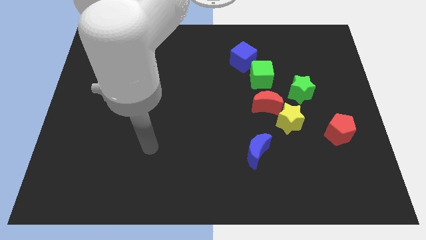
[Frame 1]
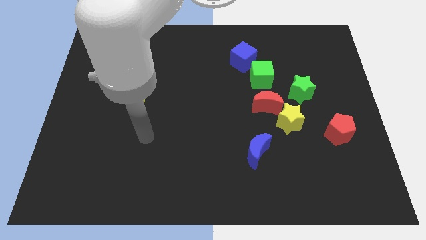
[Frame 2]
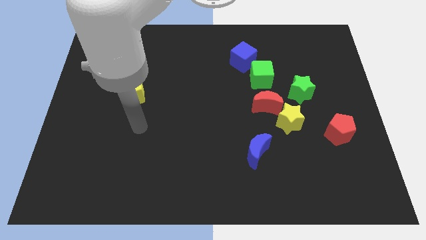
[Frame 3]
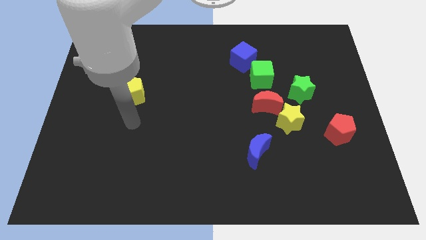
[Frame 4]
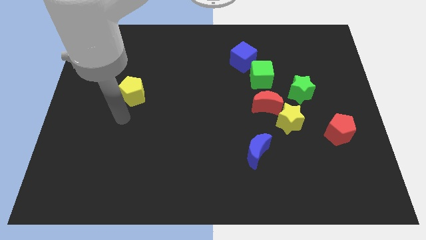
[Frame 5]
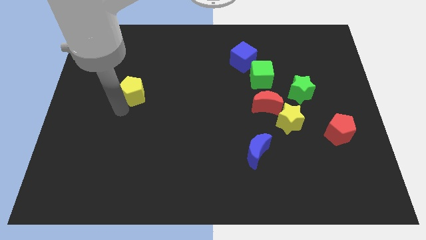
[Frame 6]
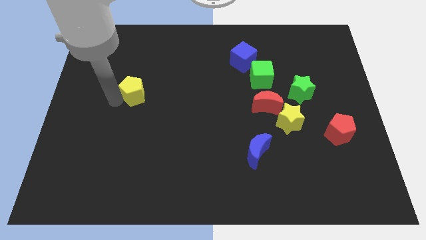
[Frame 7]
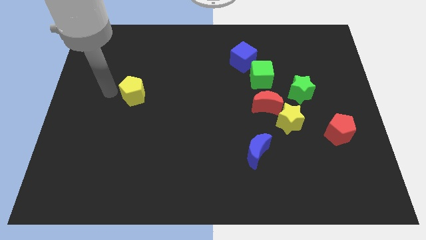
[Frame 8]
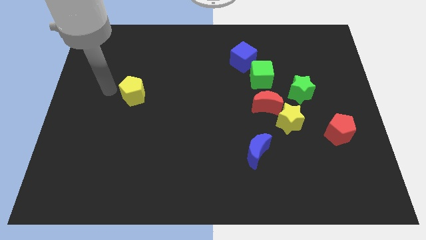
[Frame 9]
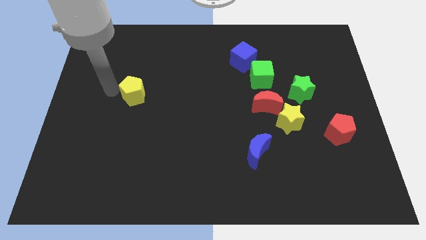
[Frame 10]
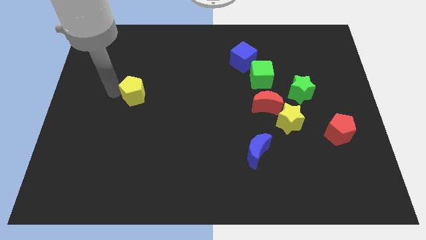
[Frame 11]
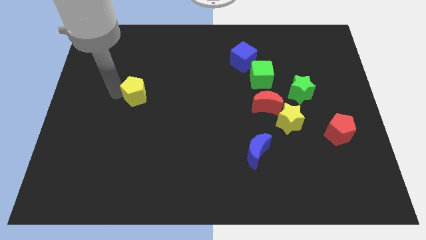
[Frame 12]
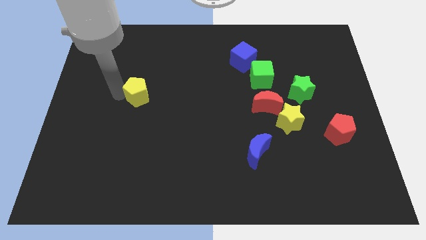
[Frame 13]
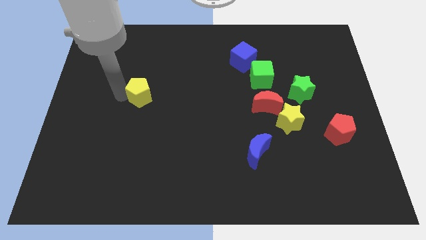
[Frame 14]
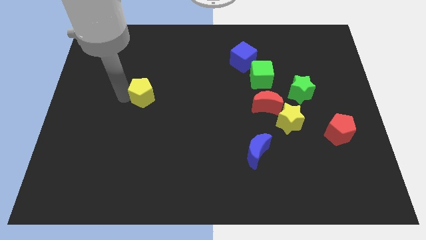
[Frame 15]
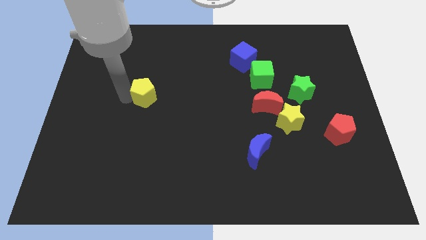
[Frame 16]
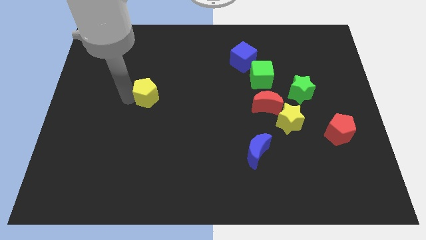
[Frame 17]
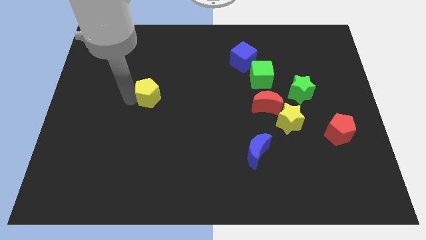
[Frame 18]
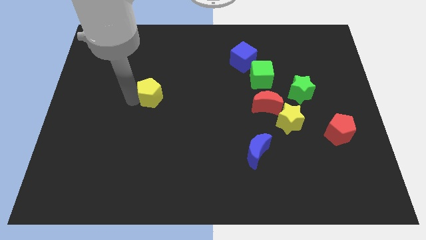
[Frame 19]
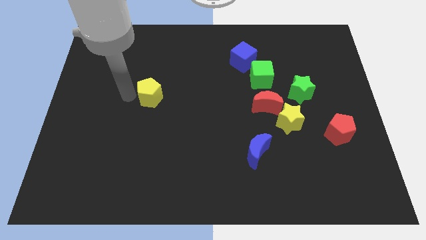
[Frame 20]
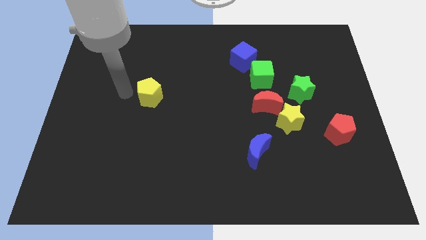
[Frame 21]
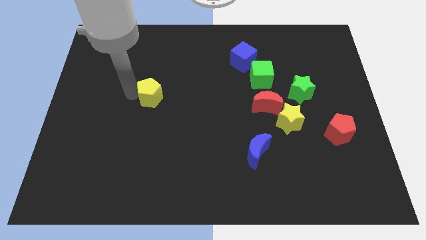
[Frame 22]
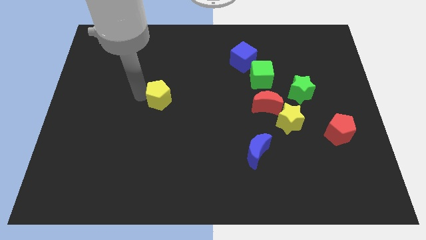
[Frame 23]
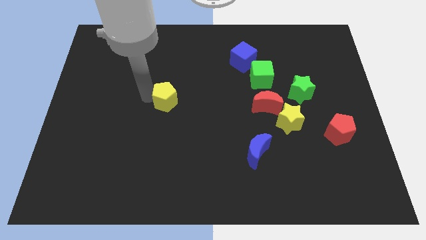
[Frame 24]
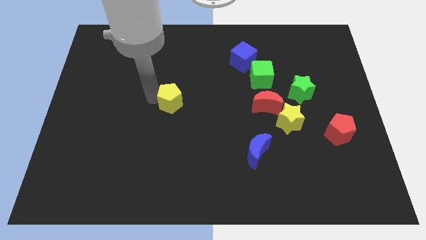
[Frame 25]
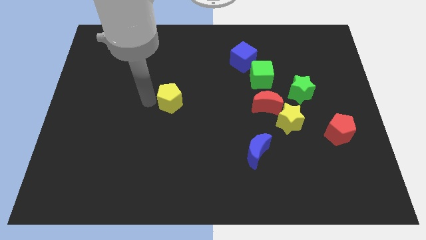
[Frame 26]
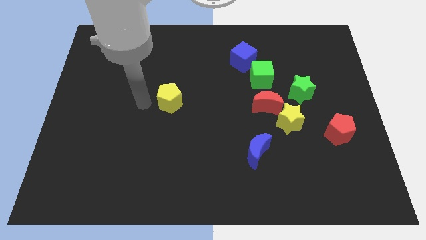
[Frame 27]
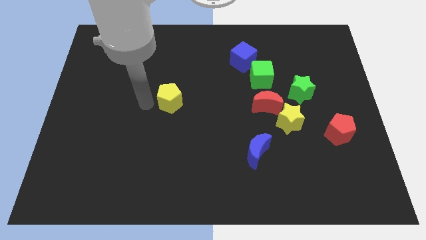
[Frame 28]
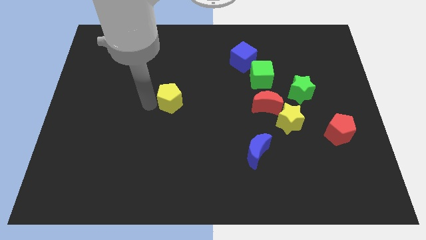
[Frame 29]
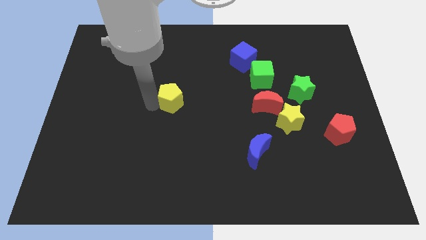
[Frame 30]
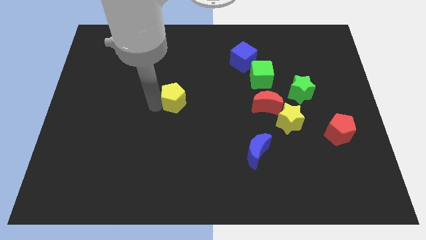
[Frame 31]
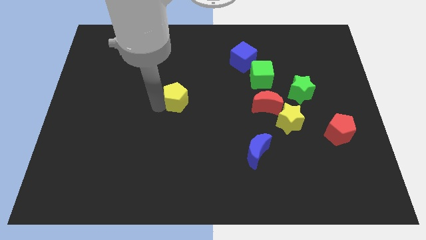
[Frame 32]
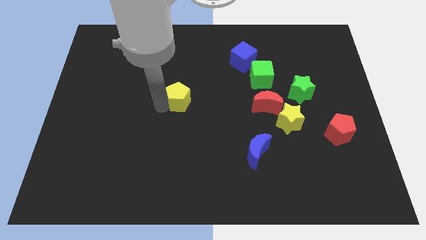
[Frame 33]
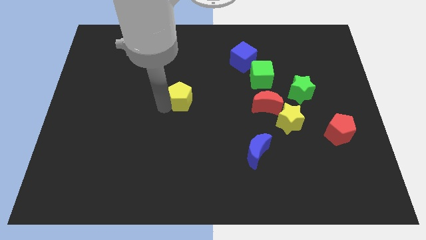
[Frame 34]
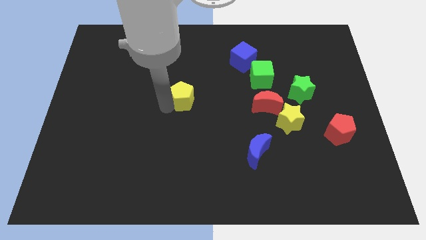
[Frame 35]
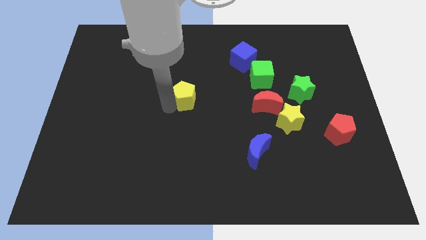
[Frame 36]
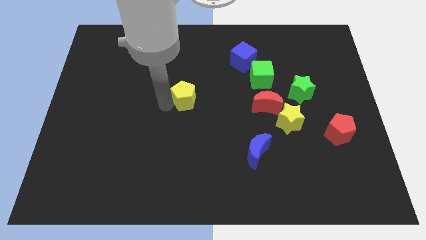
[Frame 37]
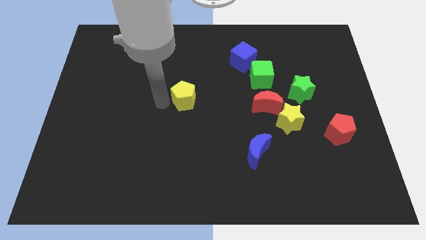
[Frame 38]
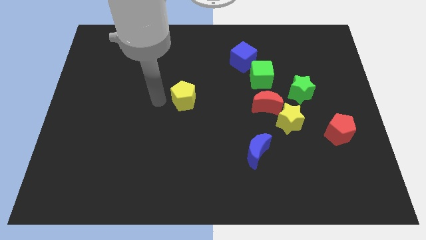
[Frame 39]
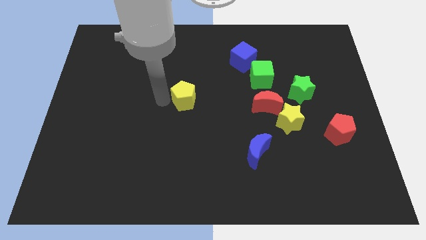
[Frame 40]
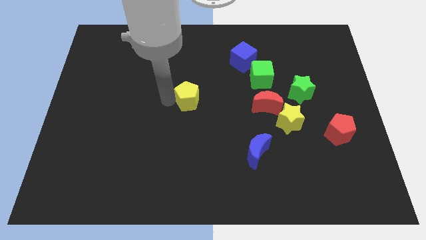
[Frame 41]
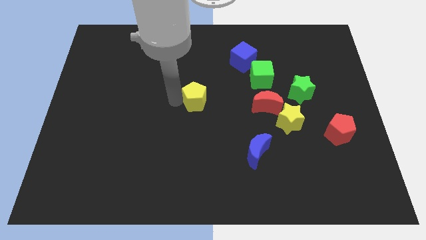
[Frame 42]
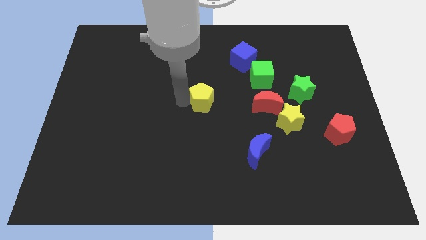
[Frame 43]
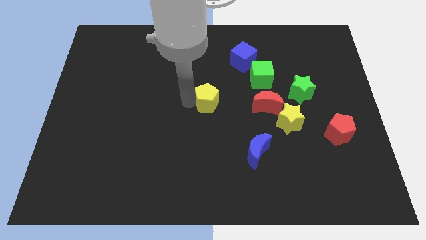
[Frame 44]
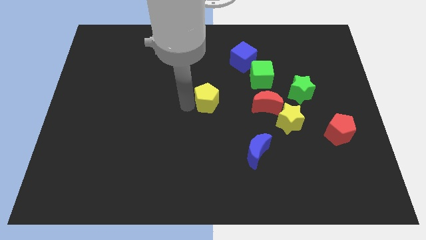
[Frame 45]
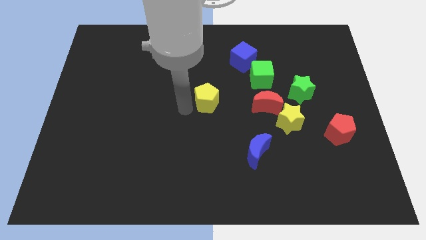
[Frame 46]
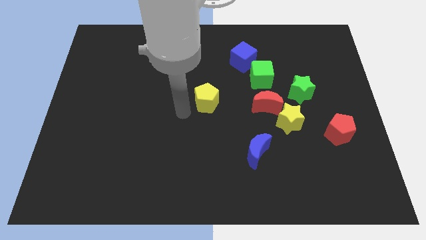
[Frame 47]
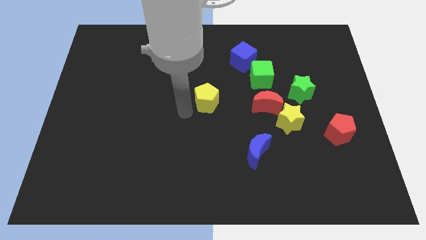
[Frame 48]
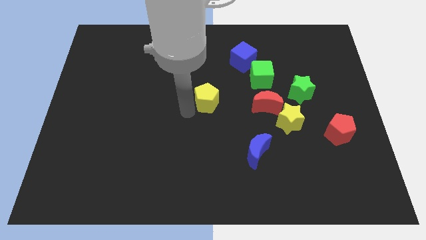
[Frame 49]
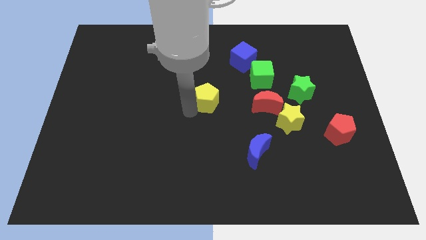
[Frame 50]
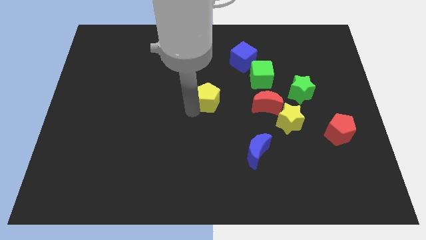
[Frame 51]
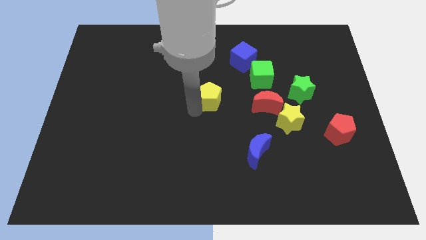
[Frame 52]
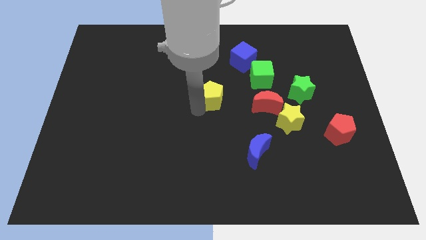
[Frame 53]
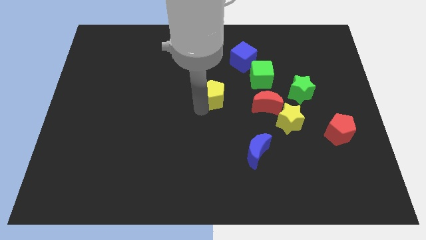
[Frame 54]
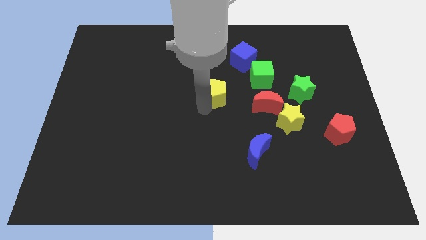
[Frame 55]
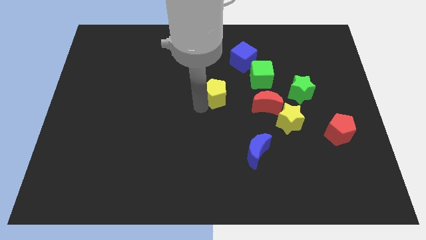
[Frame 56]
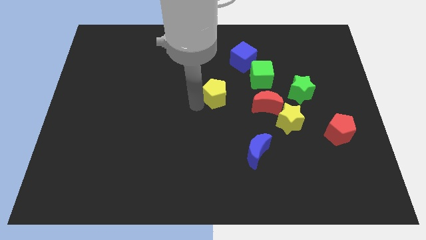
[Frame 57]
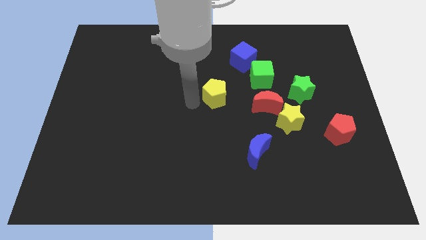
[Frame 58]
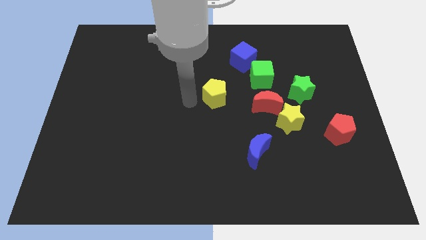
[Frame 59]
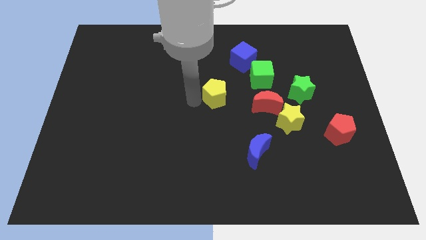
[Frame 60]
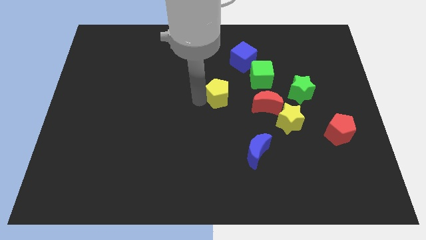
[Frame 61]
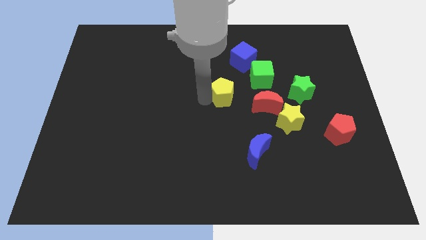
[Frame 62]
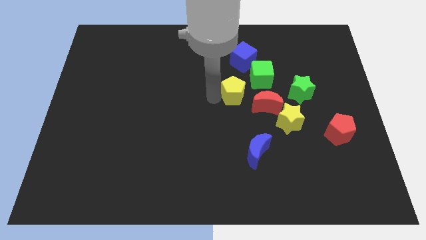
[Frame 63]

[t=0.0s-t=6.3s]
slide the yellow pentagon just left of the green star
